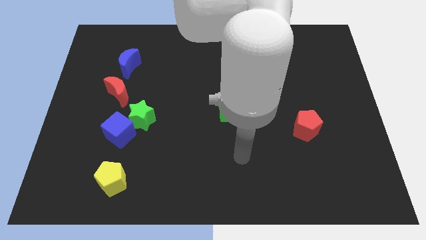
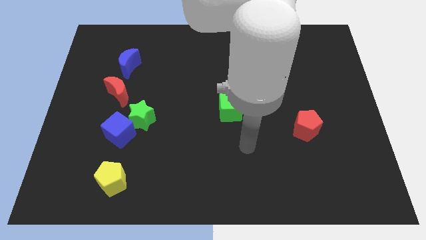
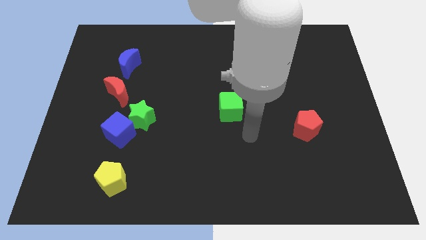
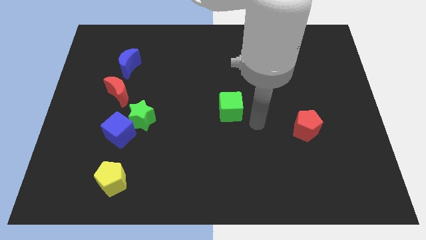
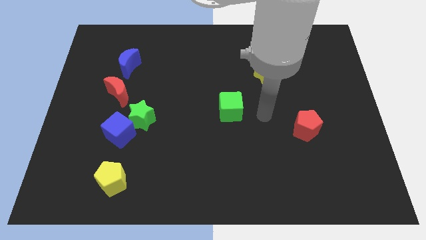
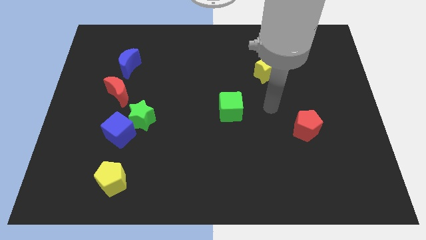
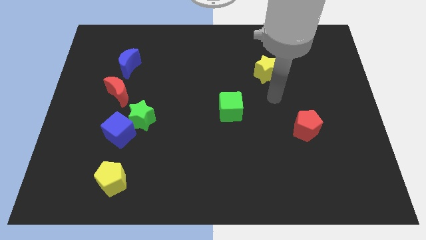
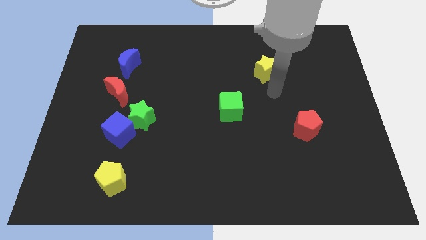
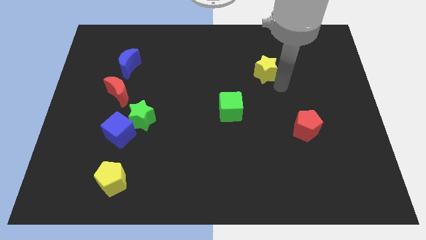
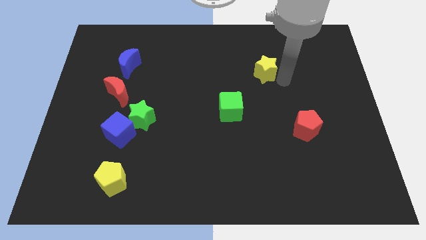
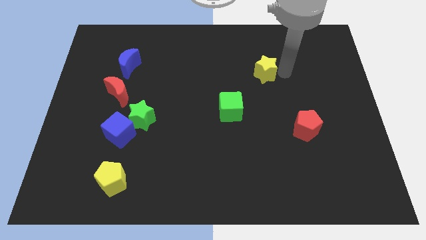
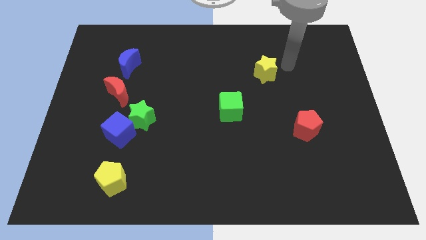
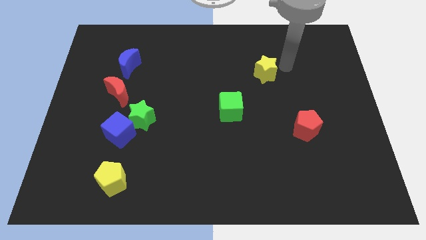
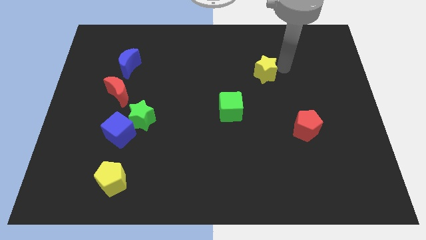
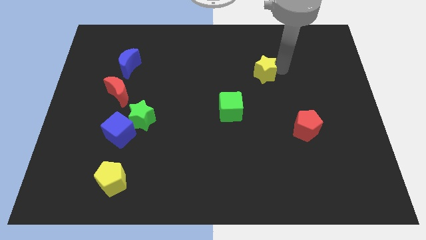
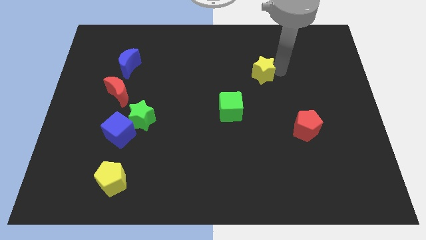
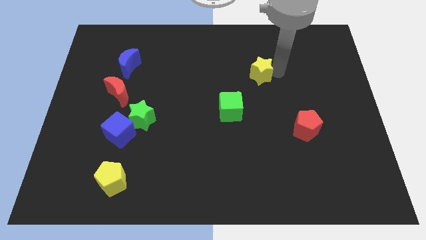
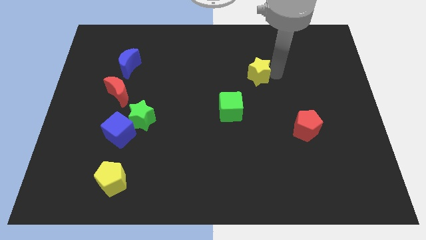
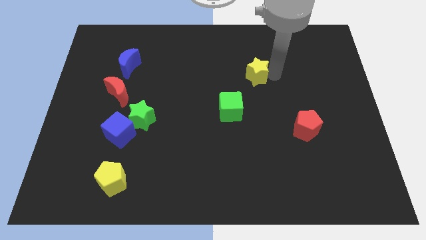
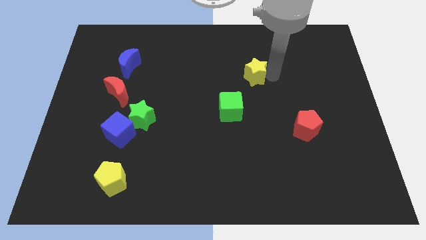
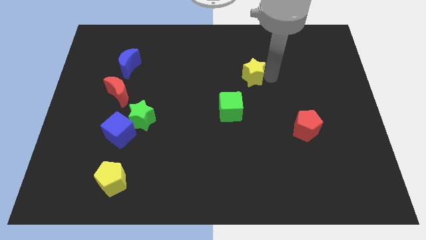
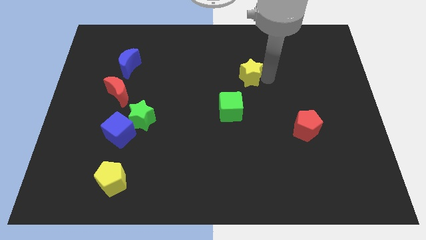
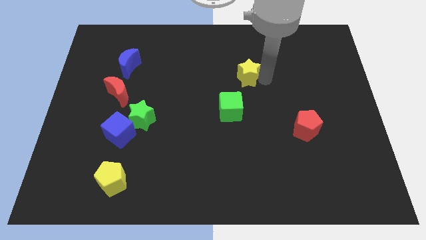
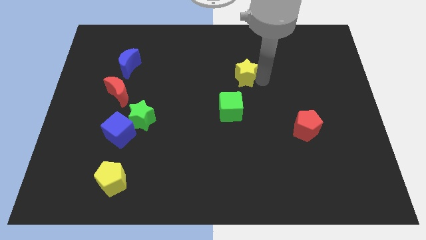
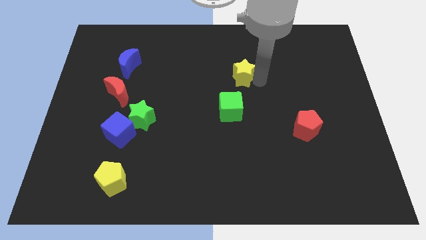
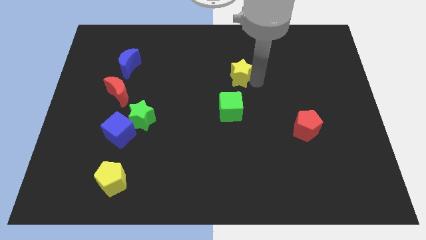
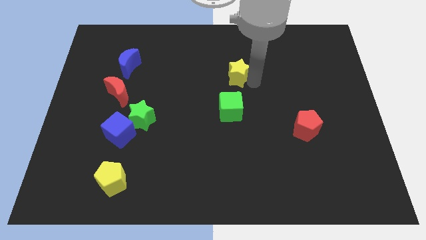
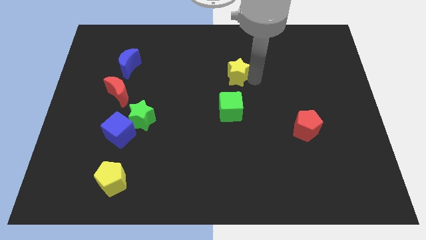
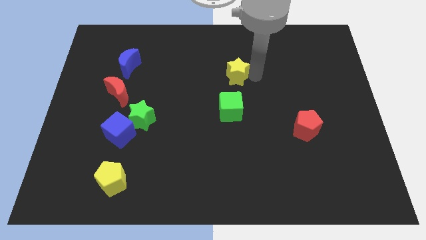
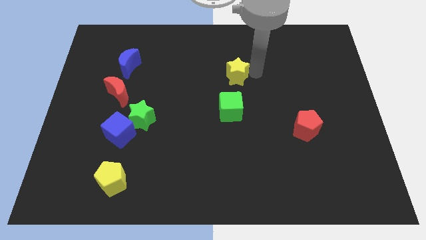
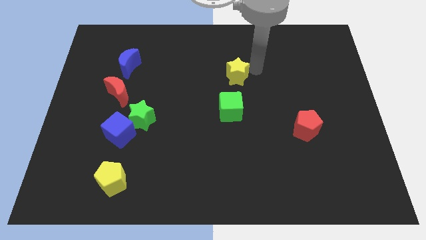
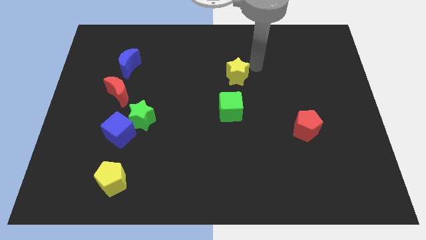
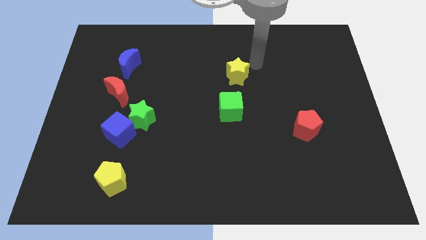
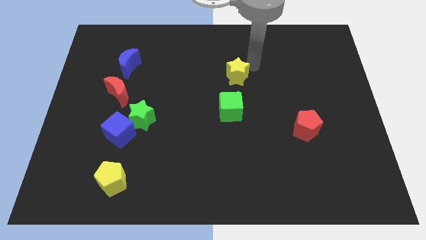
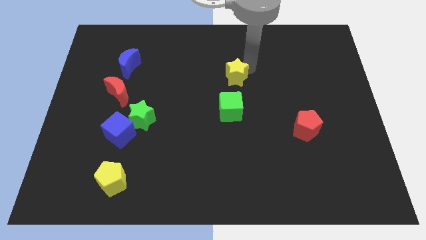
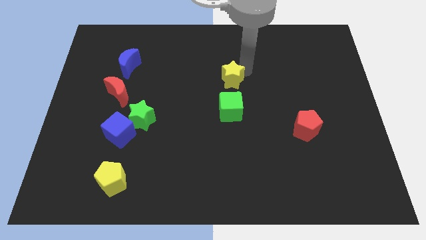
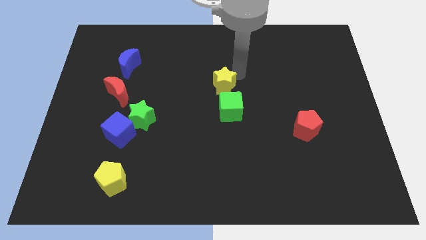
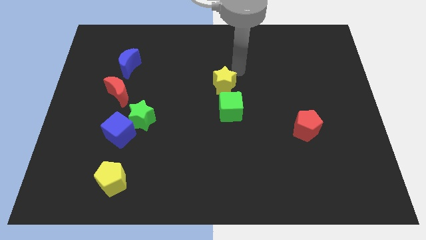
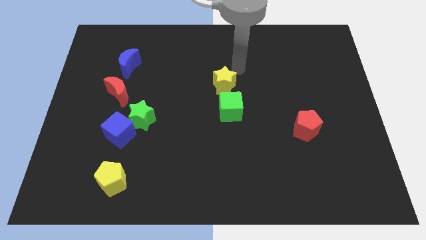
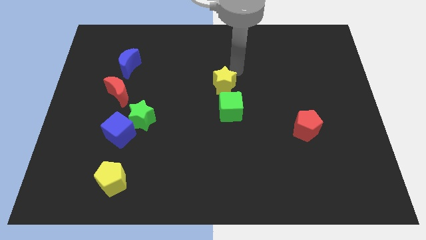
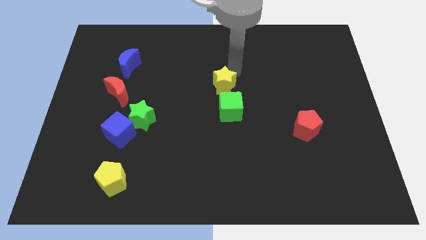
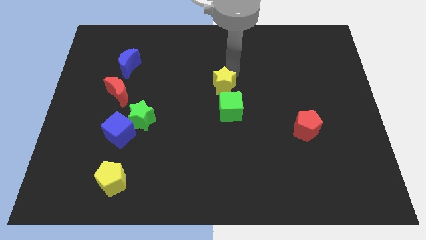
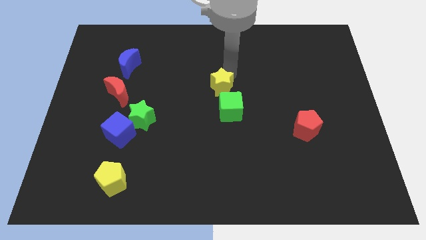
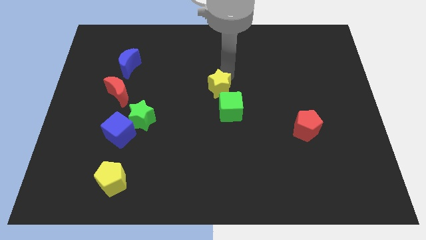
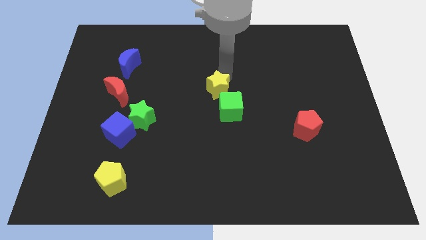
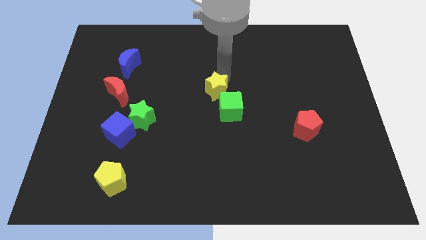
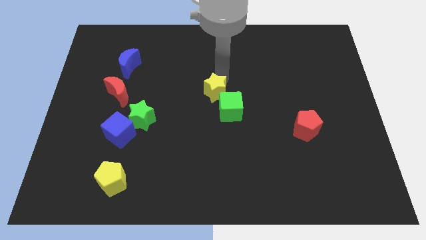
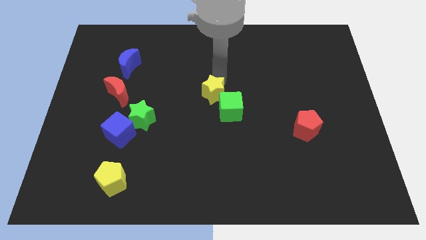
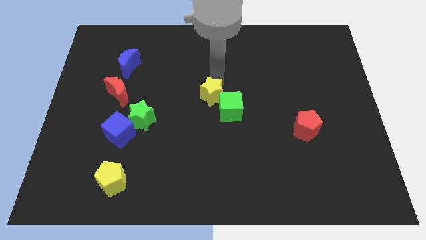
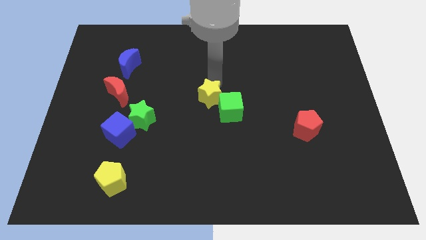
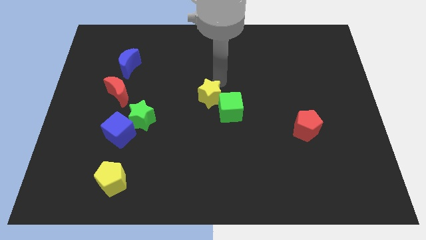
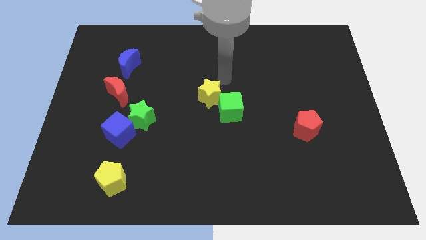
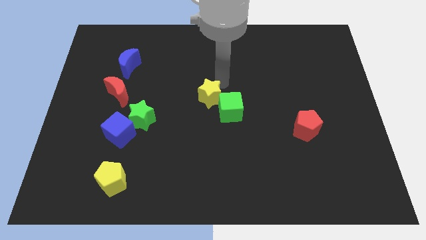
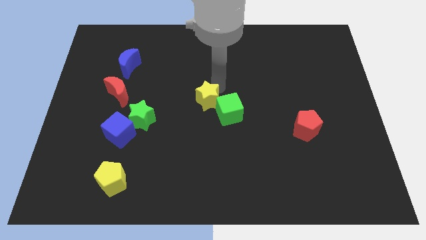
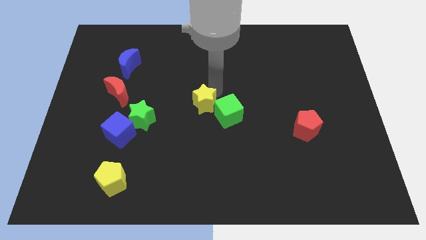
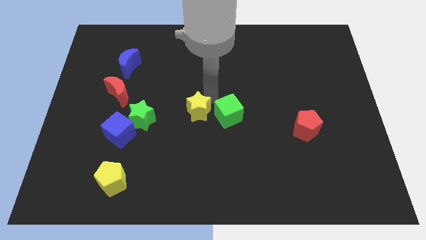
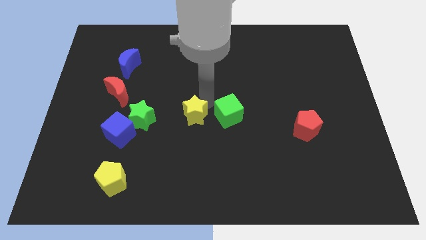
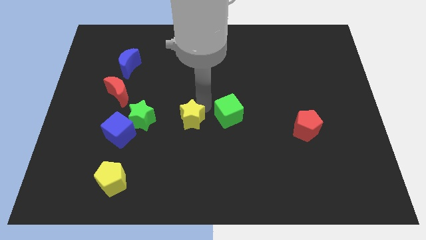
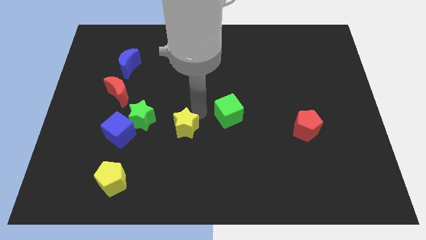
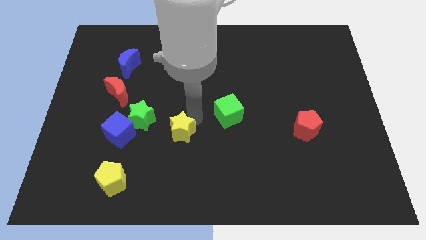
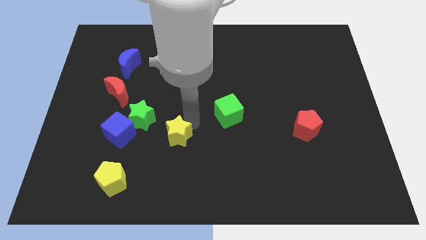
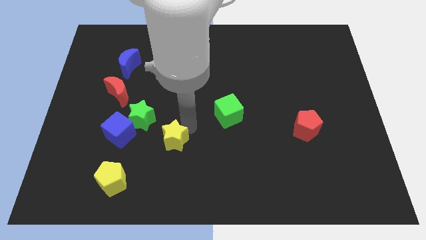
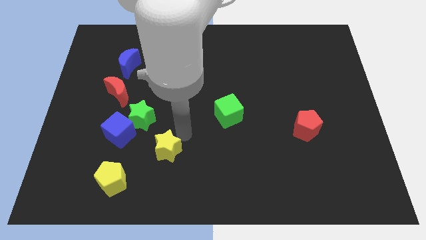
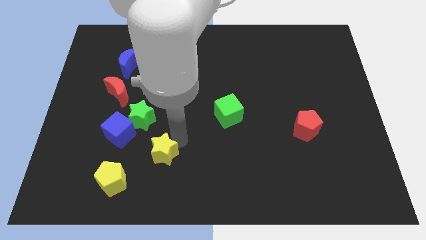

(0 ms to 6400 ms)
slide the yellow star to the bottom right of the blue cube
